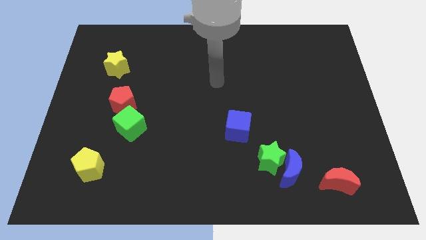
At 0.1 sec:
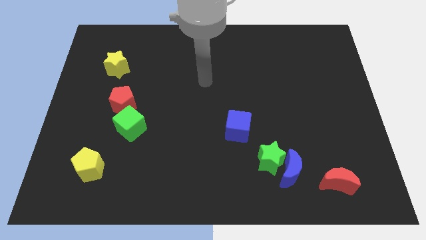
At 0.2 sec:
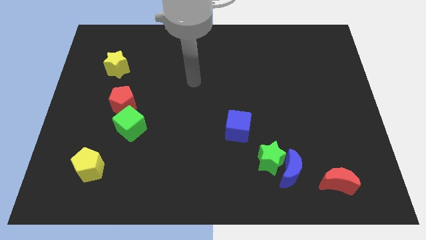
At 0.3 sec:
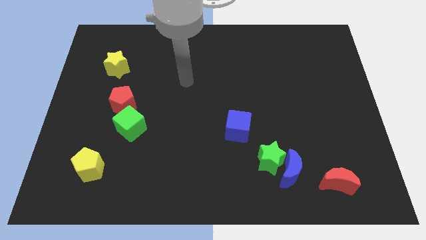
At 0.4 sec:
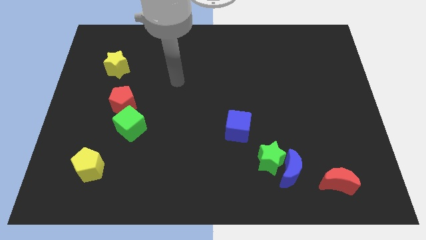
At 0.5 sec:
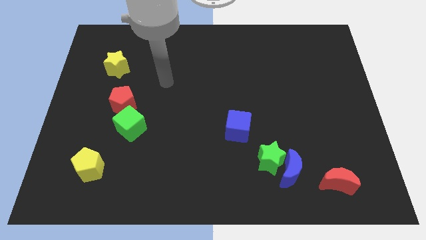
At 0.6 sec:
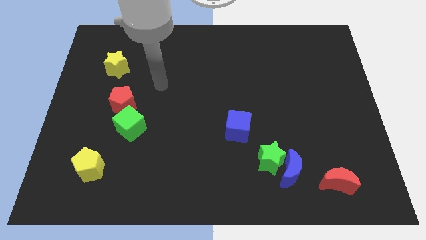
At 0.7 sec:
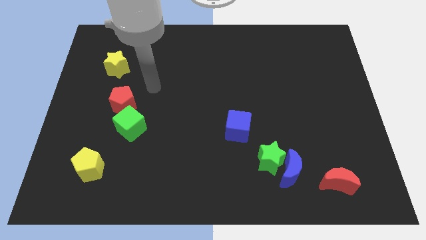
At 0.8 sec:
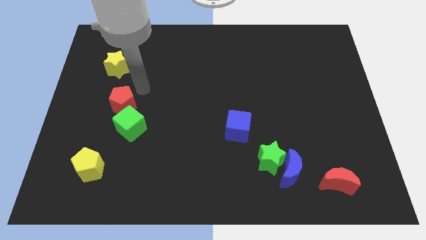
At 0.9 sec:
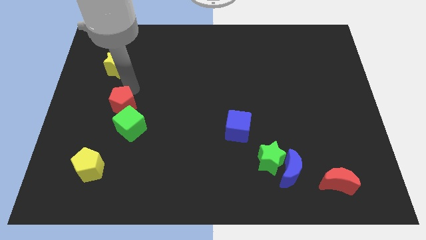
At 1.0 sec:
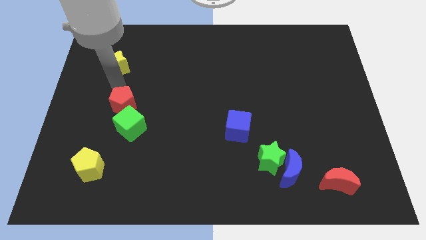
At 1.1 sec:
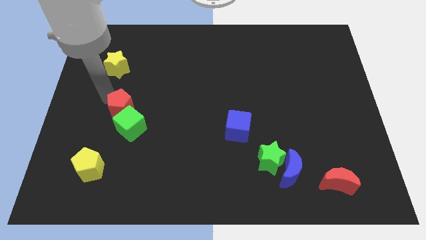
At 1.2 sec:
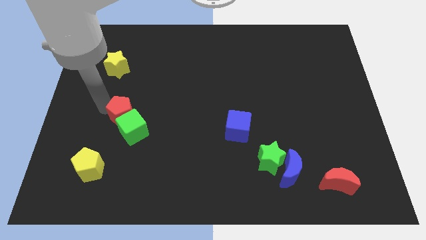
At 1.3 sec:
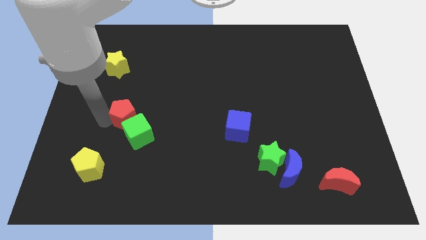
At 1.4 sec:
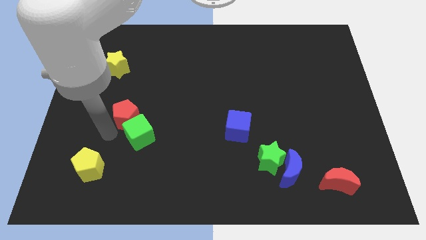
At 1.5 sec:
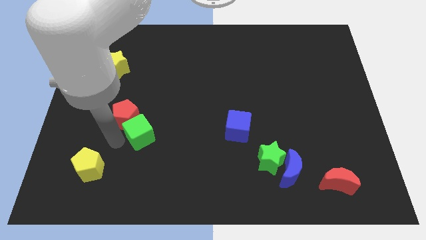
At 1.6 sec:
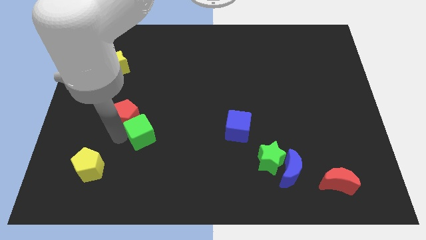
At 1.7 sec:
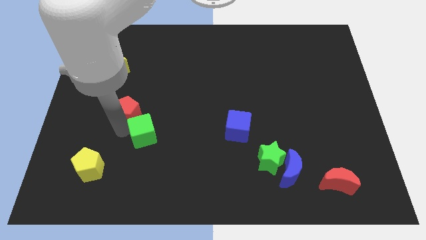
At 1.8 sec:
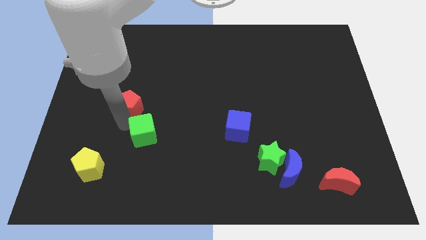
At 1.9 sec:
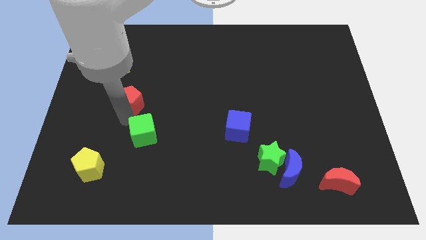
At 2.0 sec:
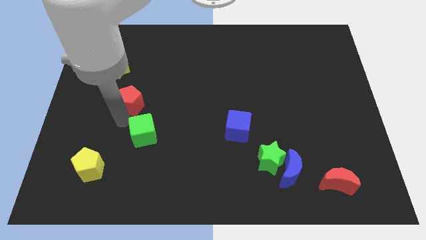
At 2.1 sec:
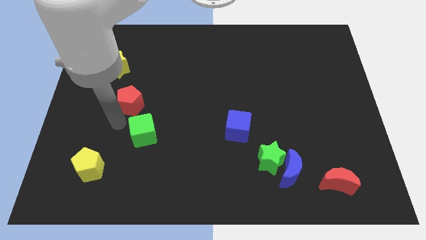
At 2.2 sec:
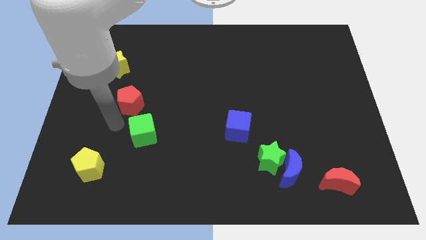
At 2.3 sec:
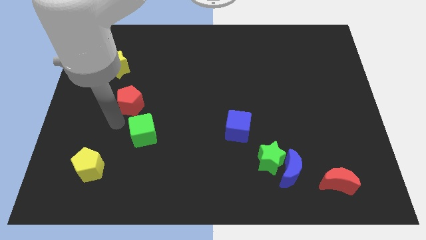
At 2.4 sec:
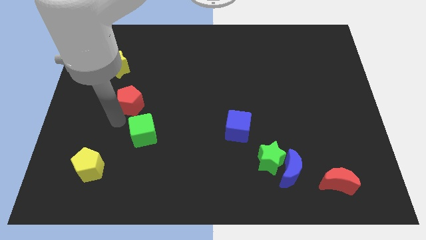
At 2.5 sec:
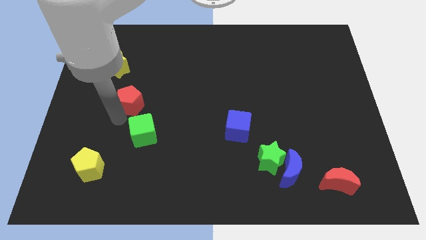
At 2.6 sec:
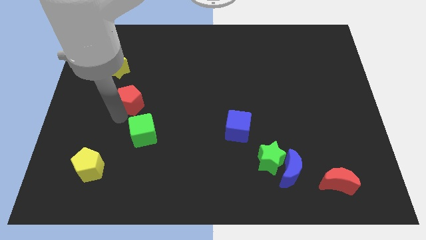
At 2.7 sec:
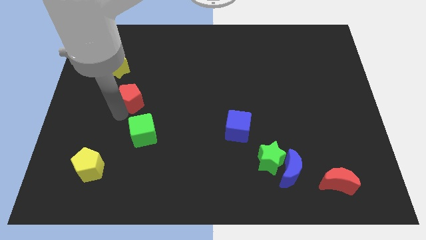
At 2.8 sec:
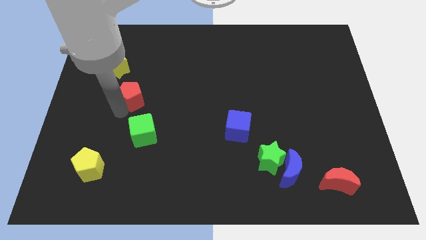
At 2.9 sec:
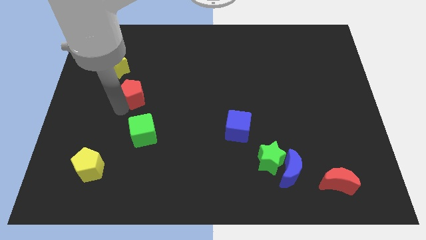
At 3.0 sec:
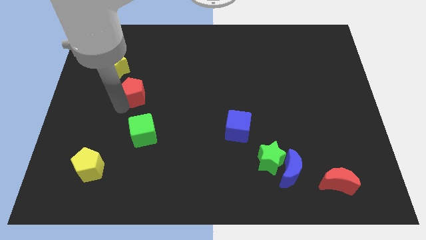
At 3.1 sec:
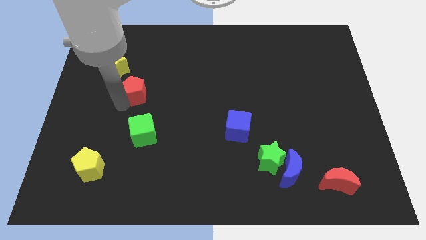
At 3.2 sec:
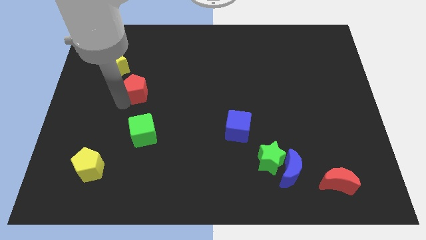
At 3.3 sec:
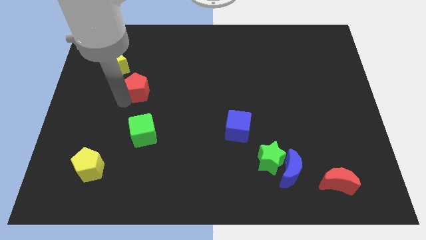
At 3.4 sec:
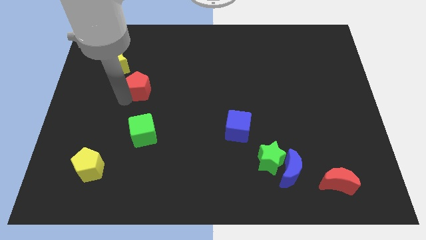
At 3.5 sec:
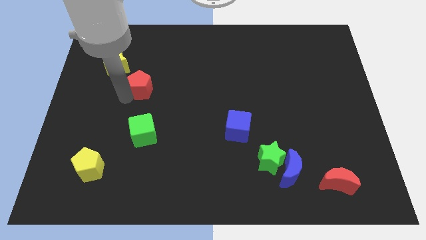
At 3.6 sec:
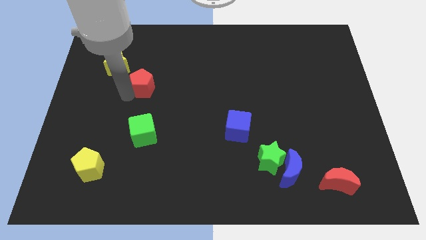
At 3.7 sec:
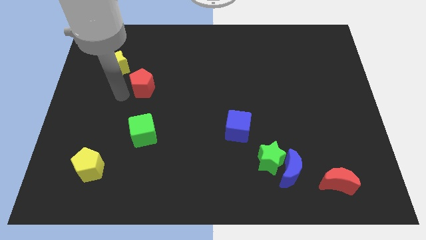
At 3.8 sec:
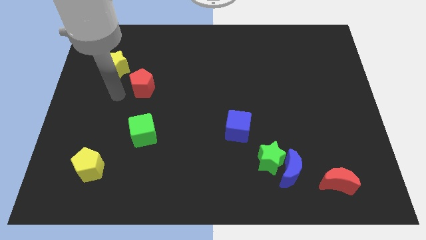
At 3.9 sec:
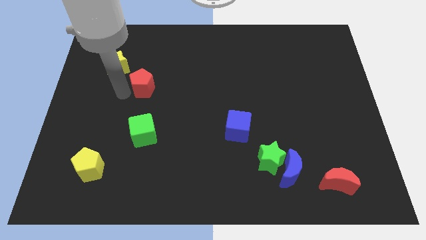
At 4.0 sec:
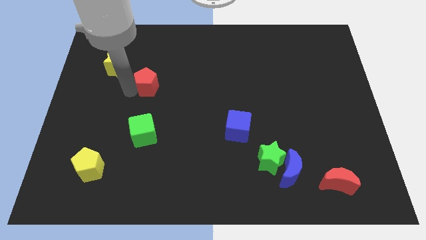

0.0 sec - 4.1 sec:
slide the red pentagon diagonally up and right a little

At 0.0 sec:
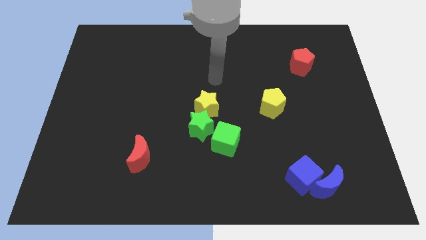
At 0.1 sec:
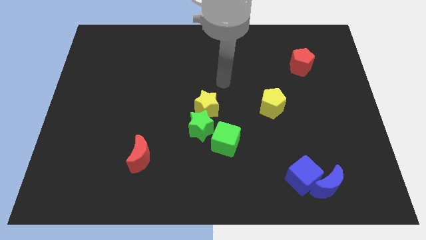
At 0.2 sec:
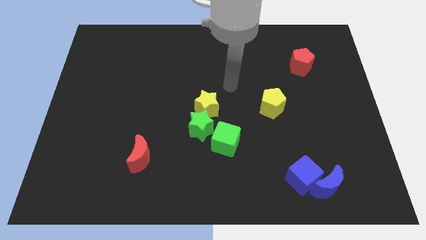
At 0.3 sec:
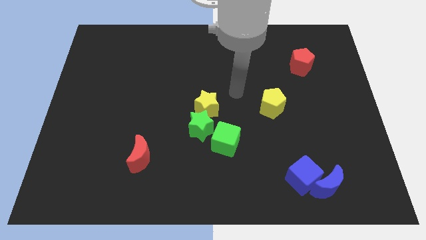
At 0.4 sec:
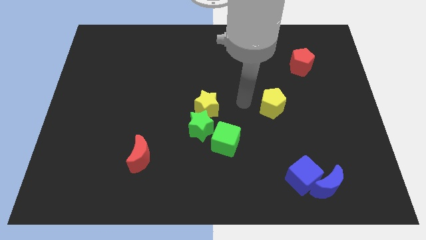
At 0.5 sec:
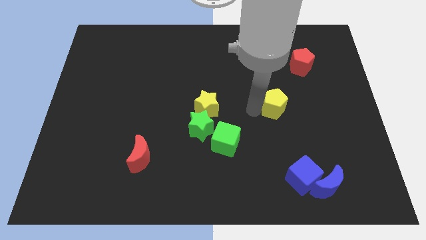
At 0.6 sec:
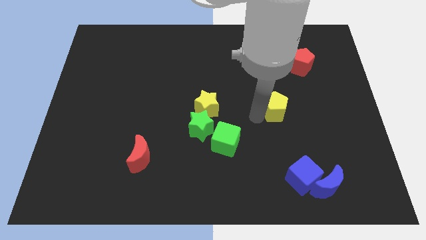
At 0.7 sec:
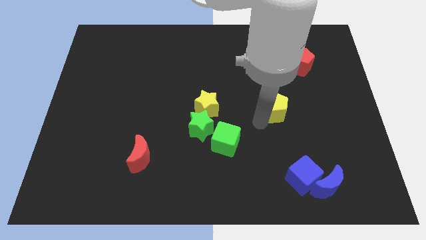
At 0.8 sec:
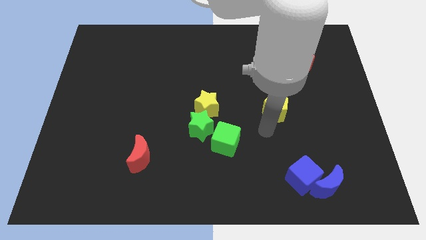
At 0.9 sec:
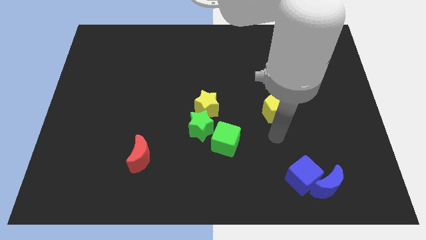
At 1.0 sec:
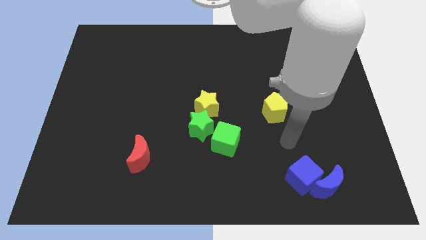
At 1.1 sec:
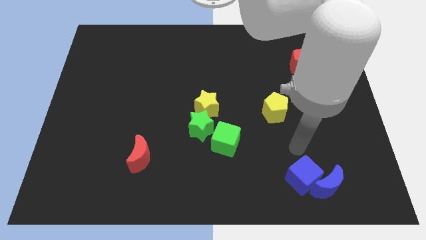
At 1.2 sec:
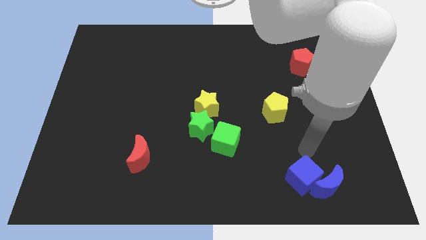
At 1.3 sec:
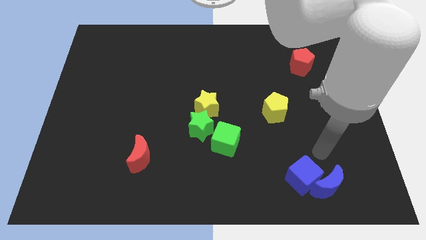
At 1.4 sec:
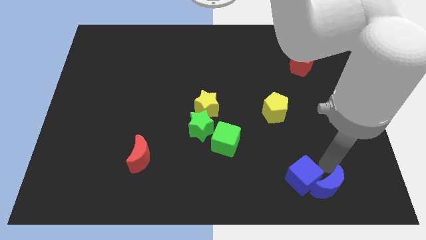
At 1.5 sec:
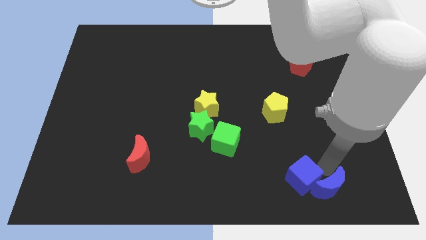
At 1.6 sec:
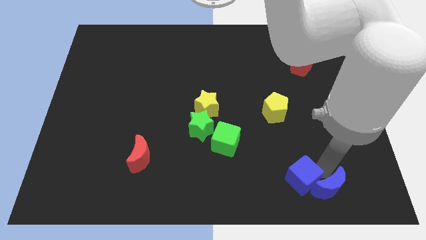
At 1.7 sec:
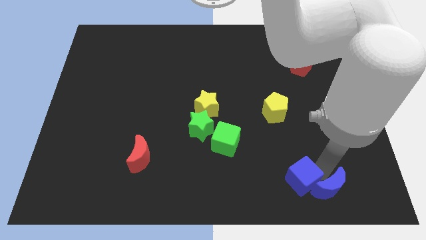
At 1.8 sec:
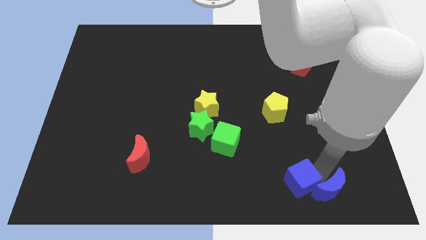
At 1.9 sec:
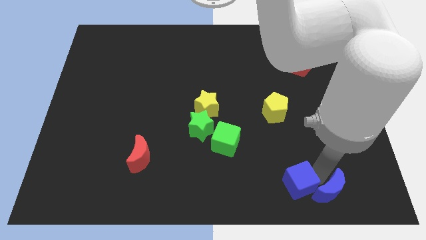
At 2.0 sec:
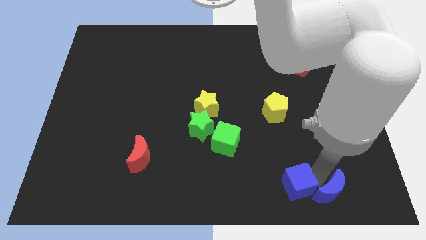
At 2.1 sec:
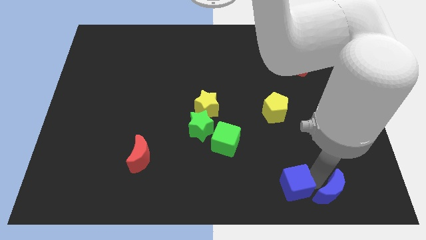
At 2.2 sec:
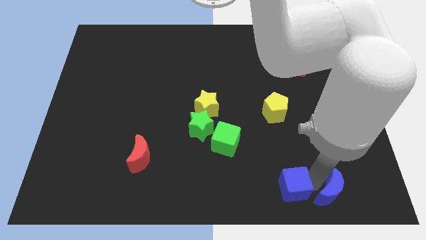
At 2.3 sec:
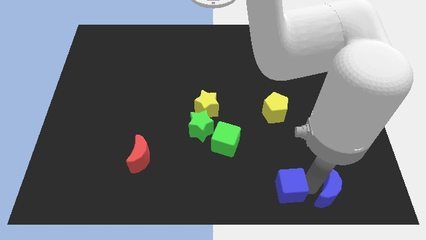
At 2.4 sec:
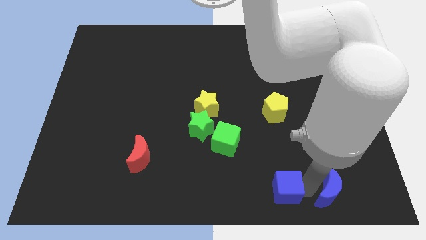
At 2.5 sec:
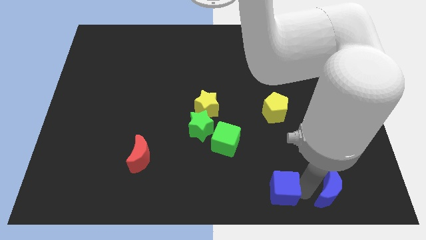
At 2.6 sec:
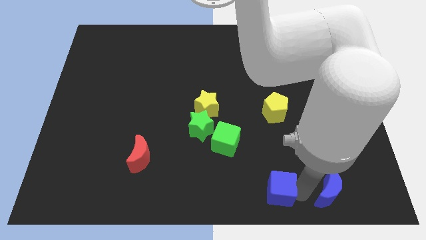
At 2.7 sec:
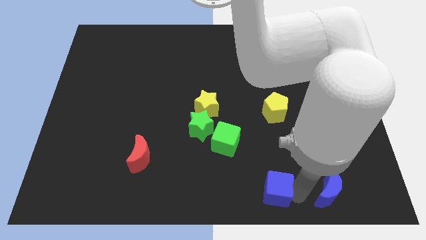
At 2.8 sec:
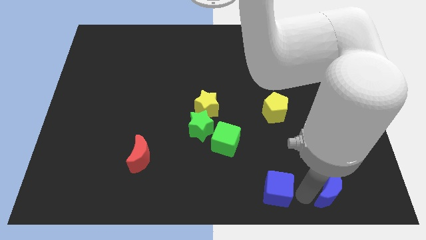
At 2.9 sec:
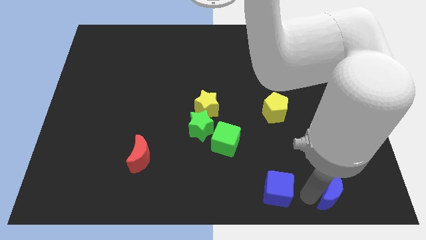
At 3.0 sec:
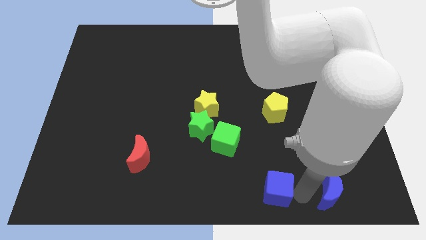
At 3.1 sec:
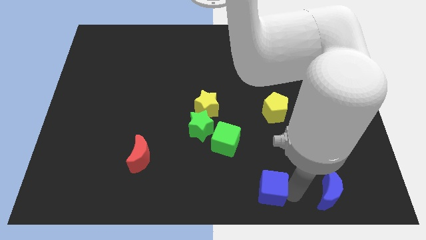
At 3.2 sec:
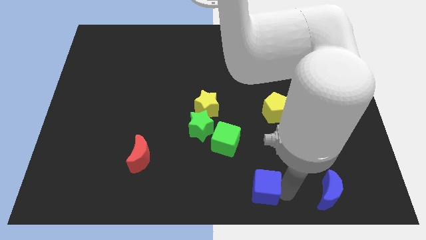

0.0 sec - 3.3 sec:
slide the blue cube to the left a little

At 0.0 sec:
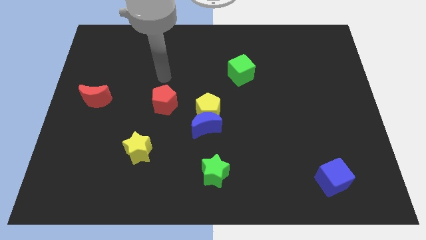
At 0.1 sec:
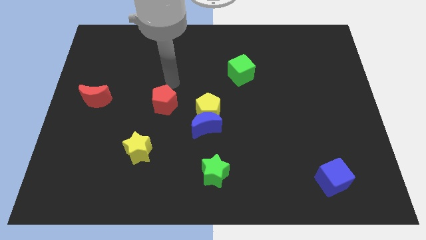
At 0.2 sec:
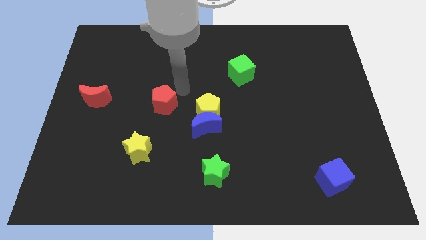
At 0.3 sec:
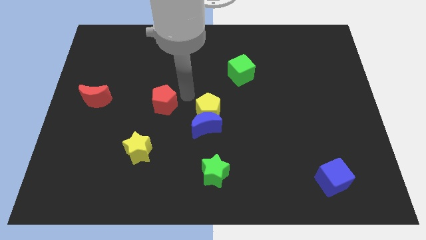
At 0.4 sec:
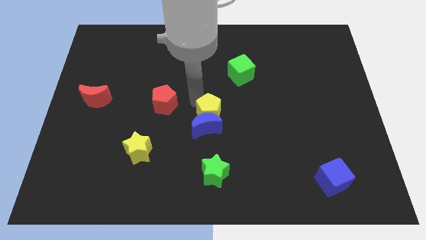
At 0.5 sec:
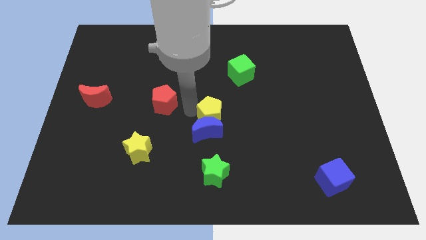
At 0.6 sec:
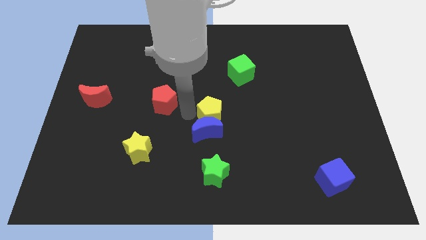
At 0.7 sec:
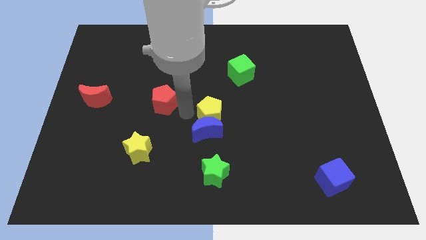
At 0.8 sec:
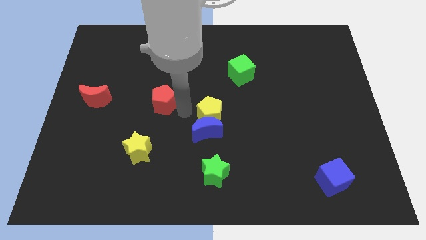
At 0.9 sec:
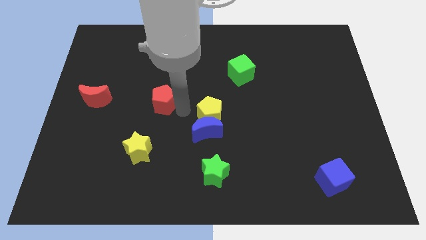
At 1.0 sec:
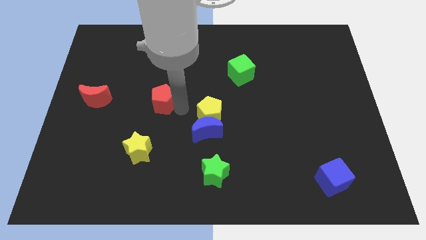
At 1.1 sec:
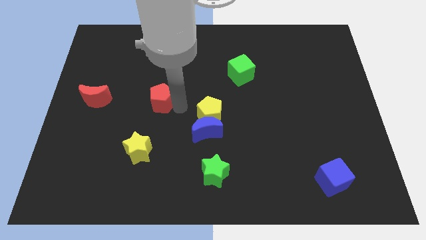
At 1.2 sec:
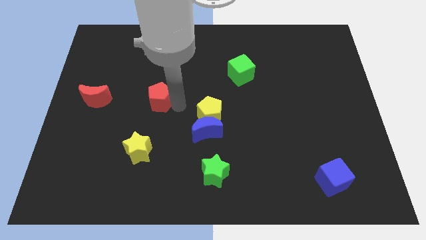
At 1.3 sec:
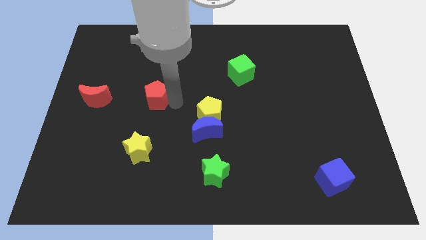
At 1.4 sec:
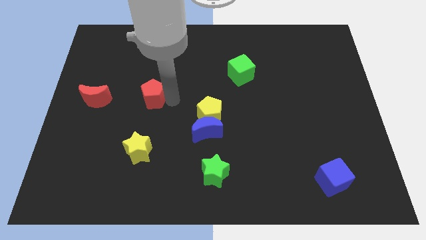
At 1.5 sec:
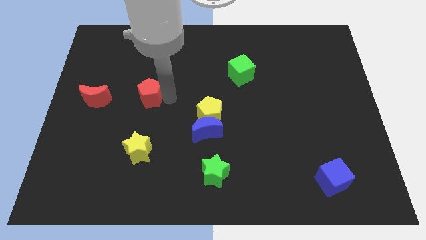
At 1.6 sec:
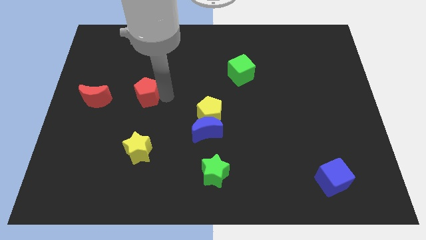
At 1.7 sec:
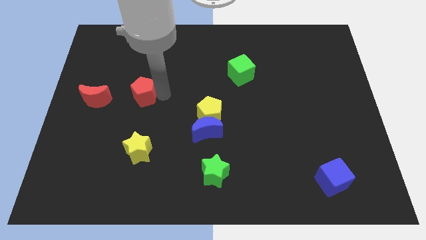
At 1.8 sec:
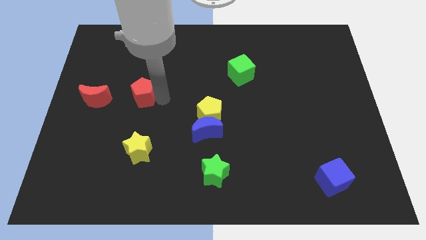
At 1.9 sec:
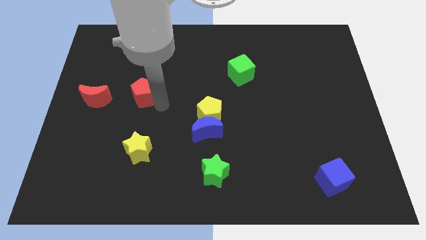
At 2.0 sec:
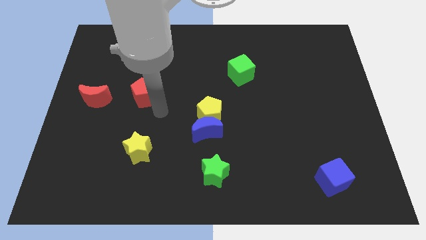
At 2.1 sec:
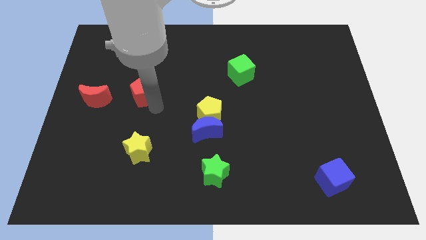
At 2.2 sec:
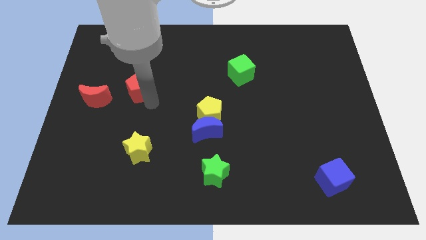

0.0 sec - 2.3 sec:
move the red pentagon somewhat upwards and left
